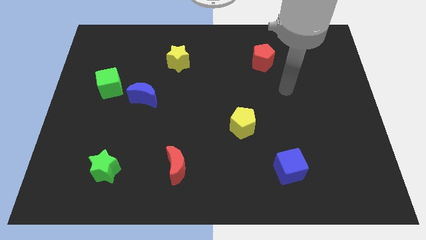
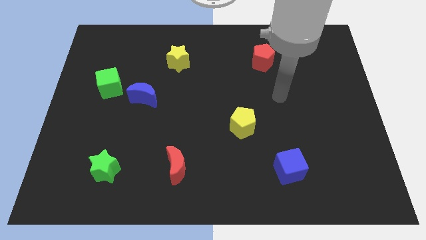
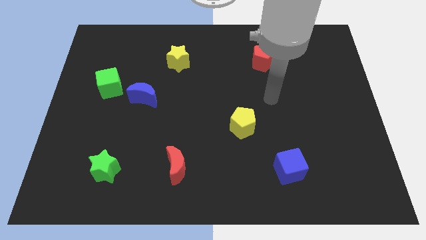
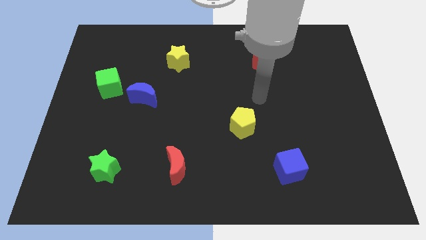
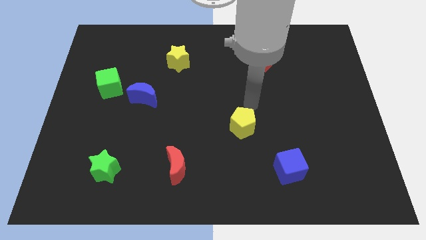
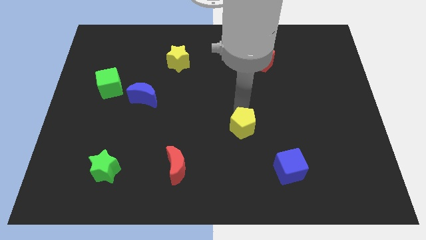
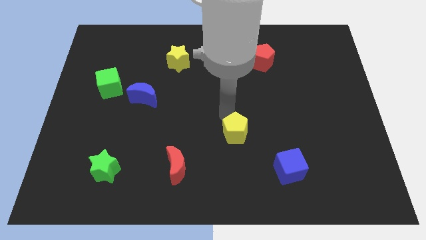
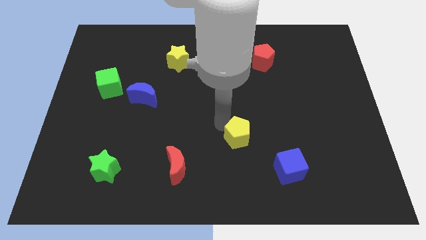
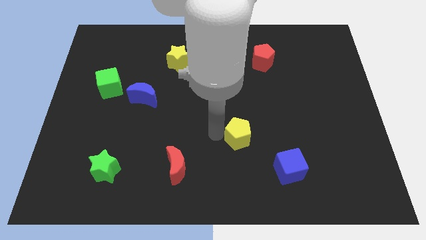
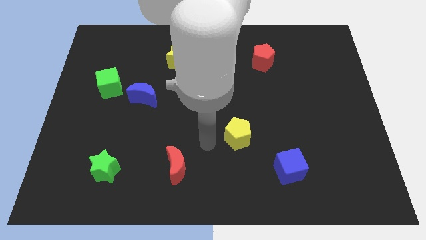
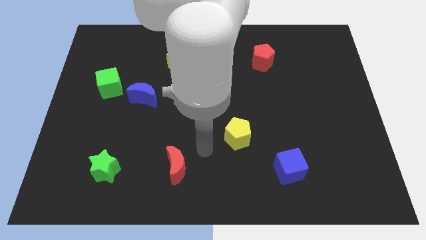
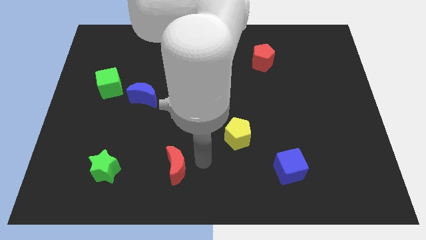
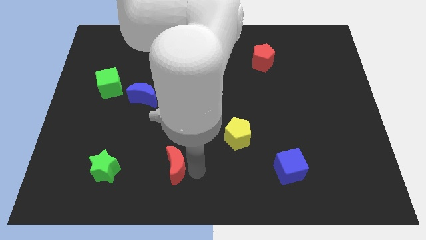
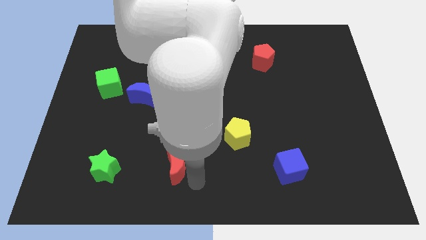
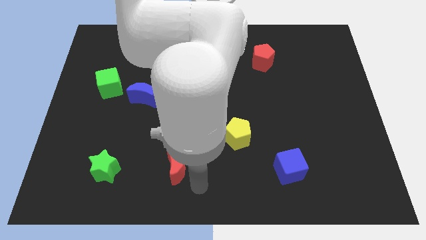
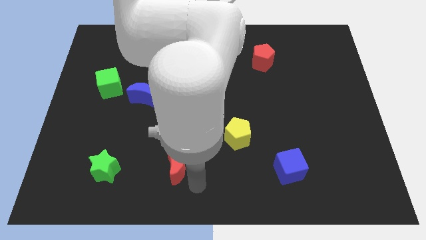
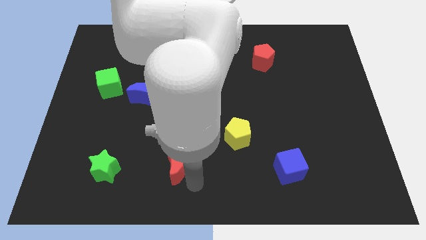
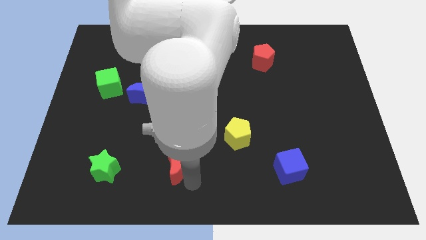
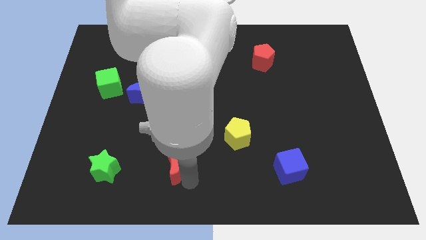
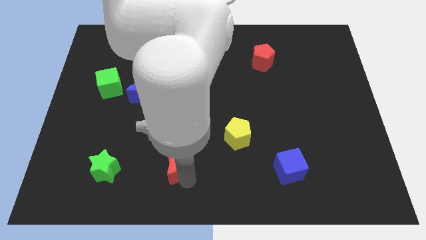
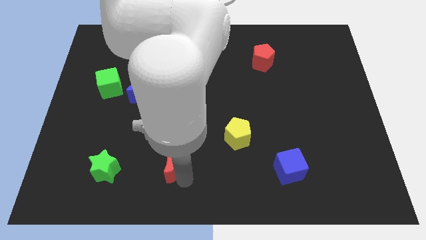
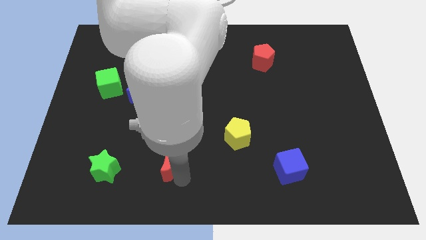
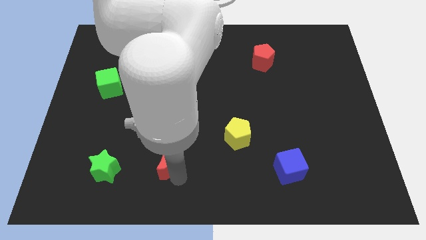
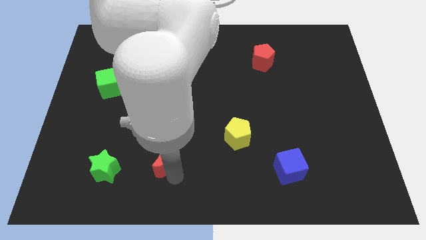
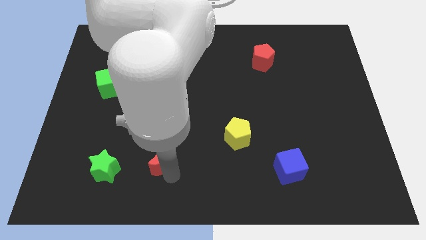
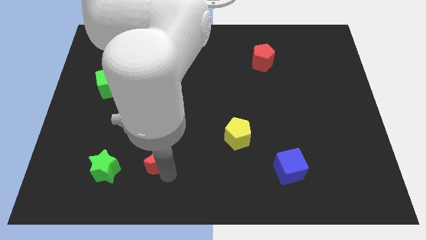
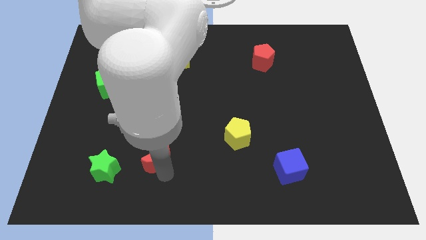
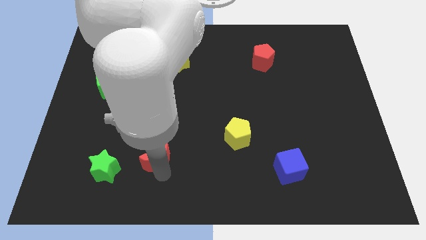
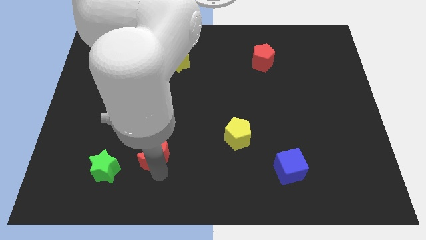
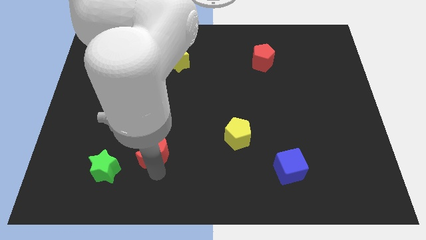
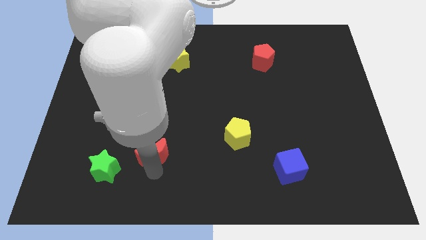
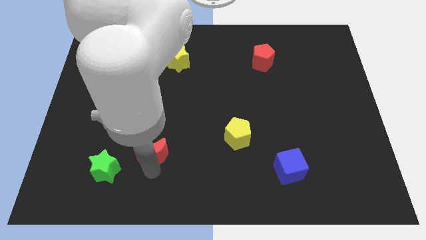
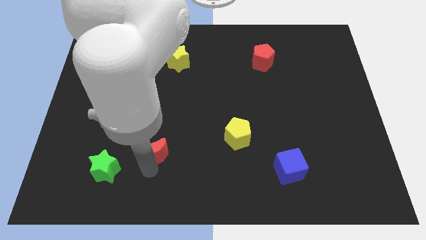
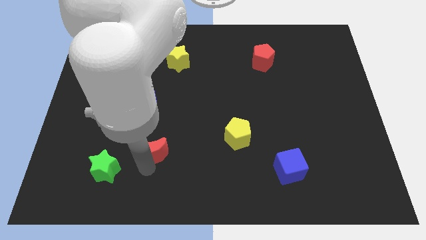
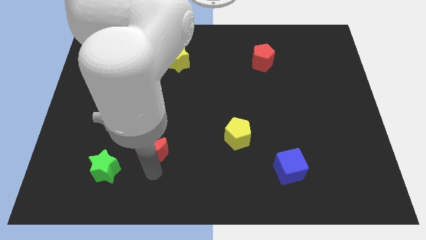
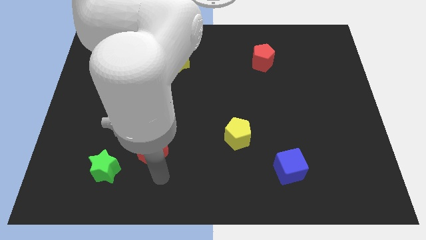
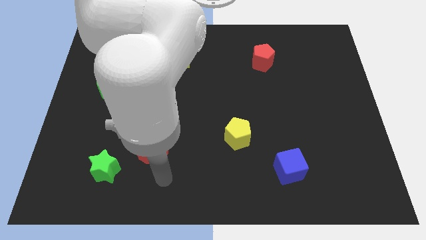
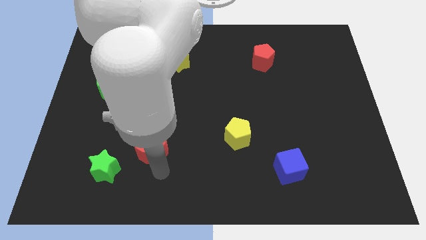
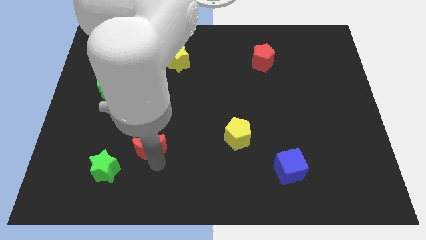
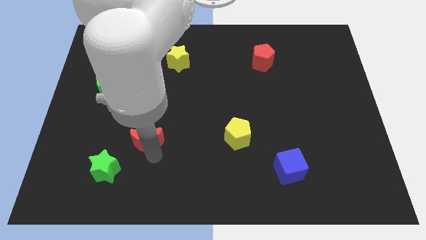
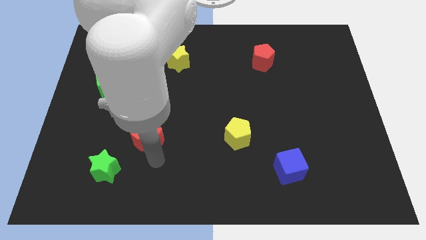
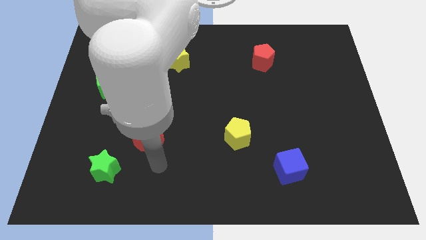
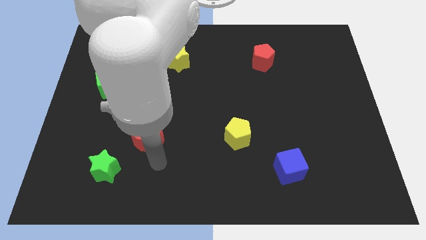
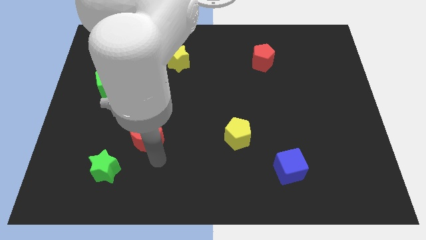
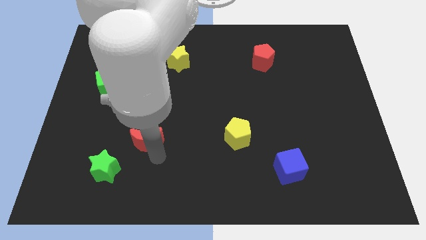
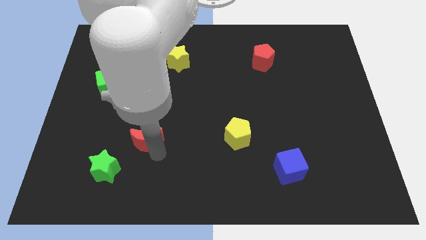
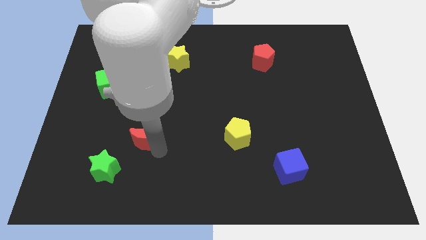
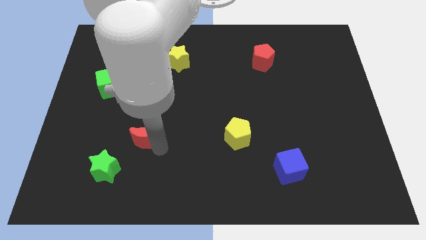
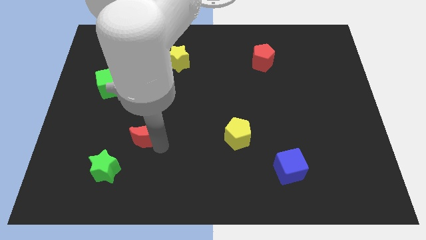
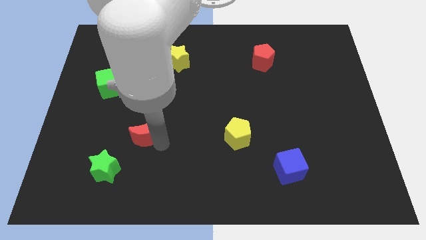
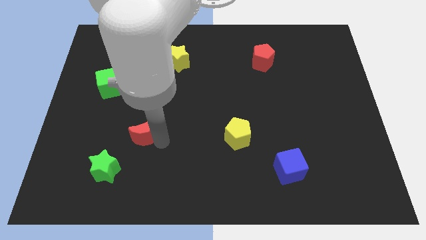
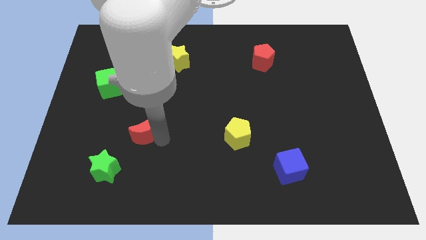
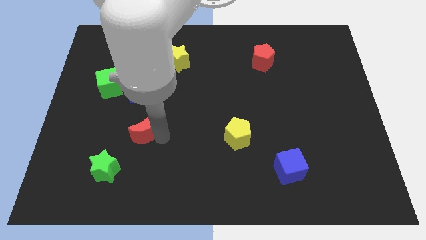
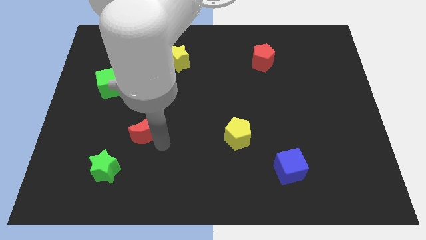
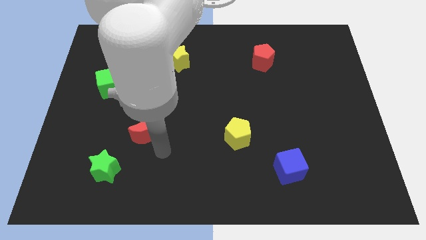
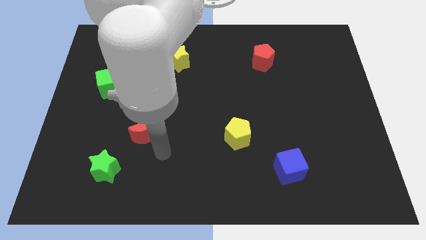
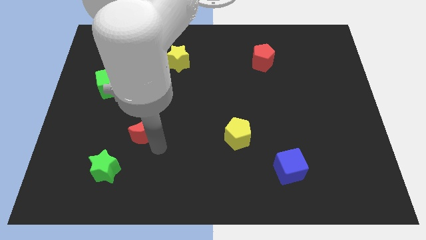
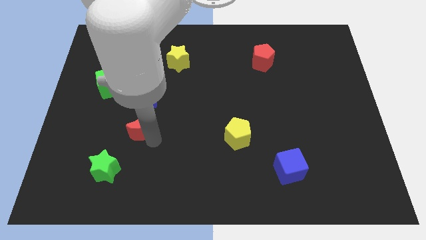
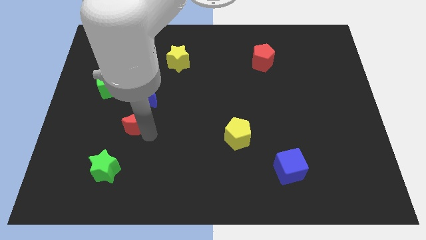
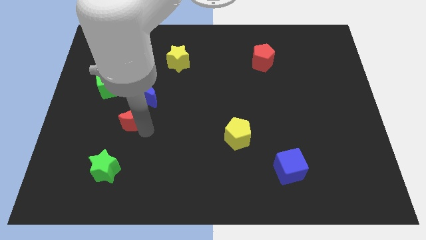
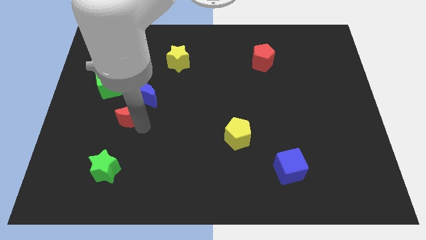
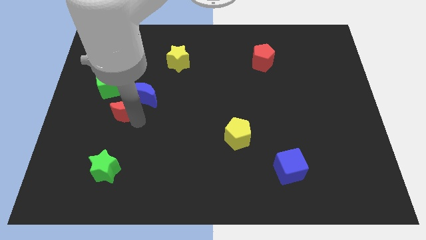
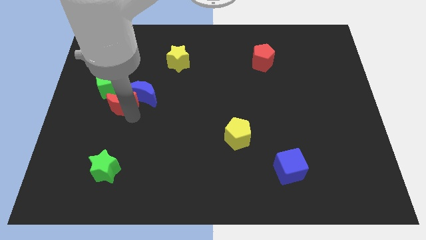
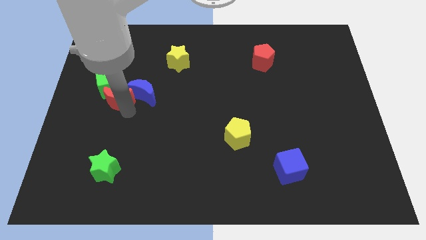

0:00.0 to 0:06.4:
slide the red moon next to the green cube

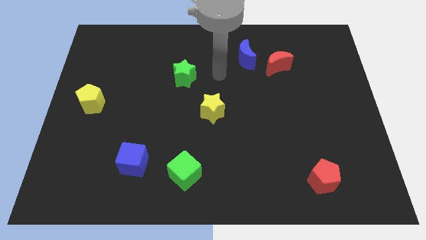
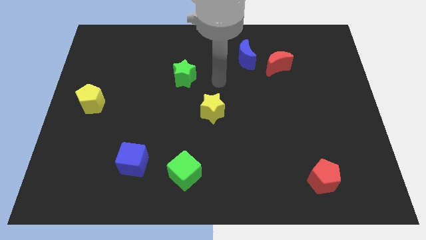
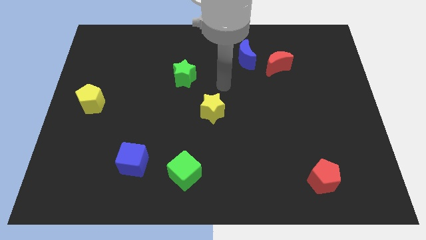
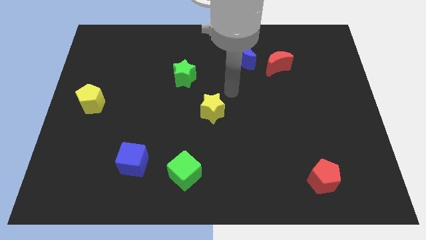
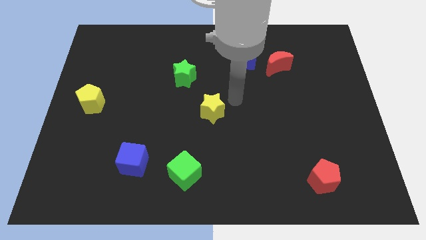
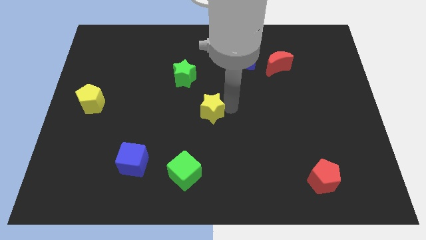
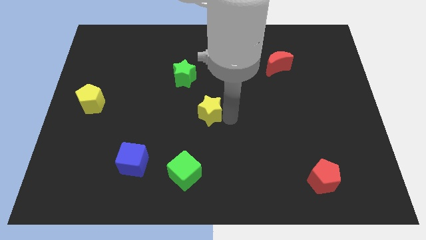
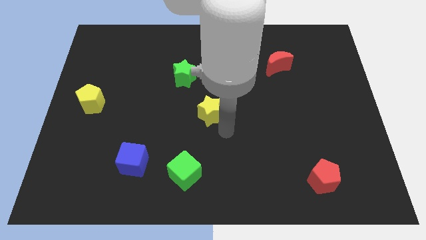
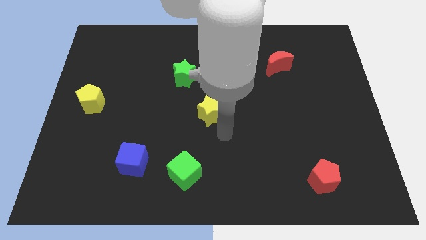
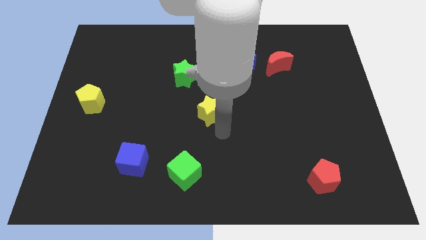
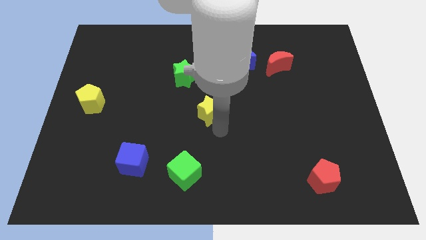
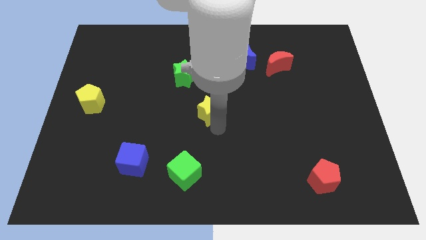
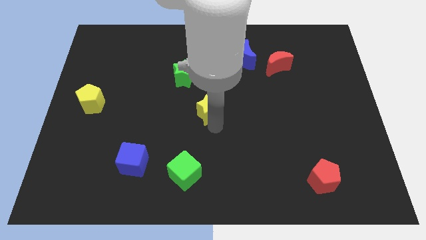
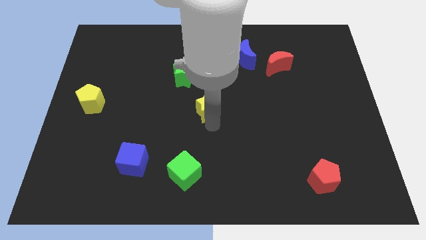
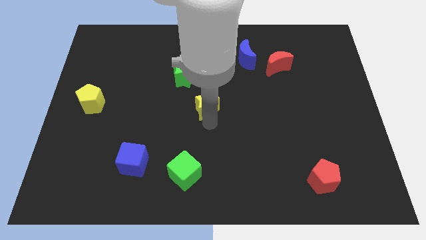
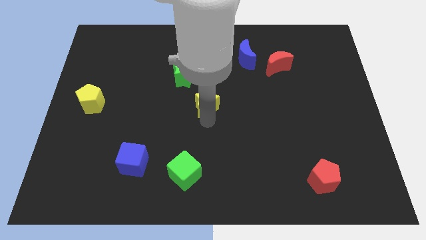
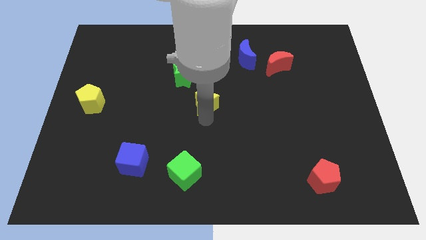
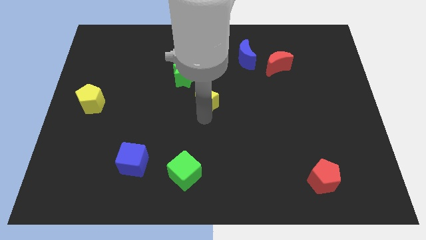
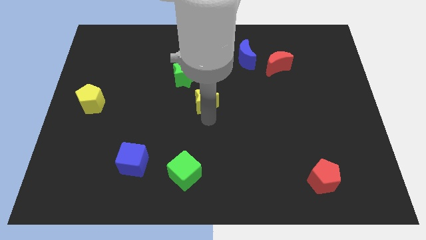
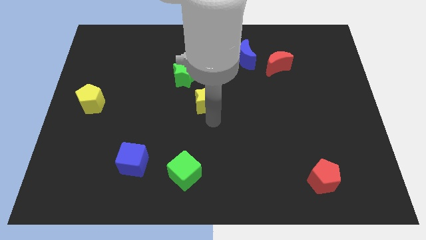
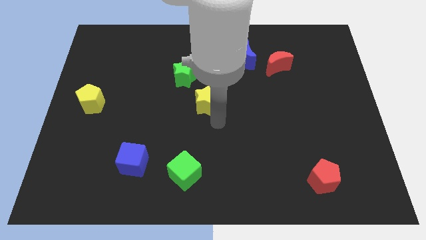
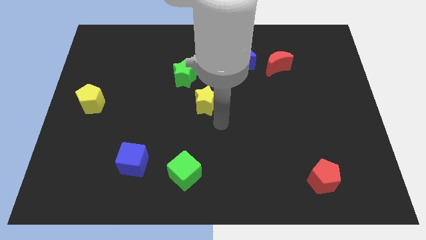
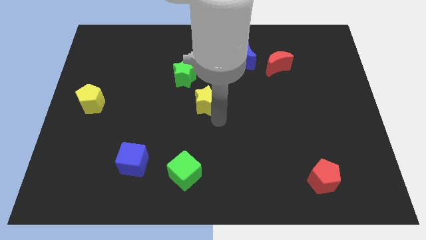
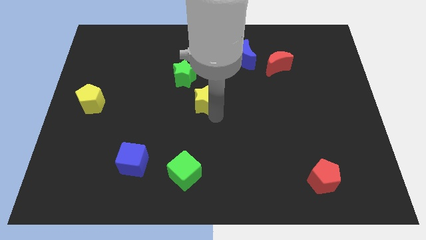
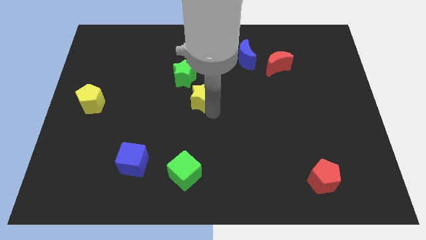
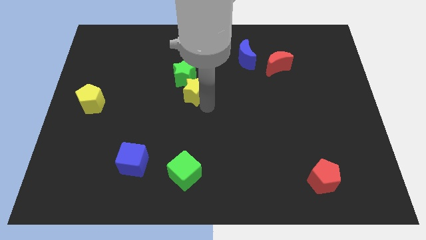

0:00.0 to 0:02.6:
push the yellow star next to the green star
